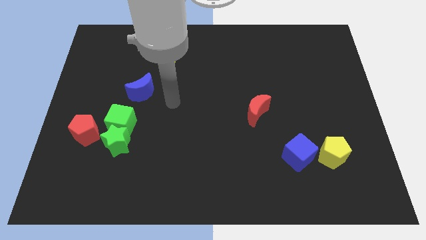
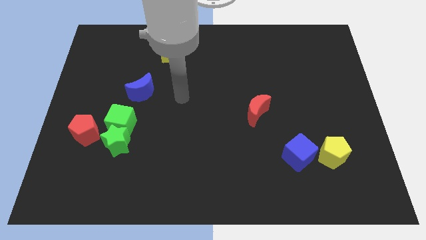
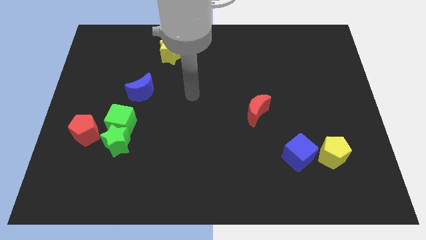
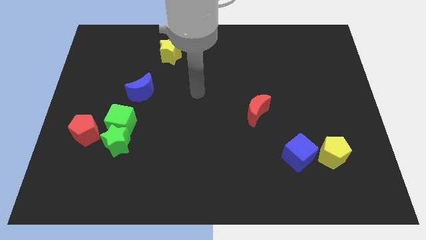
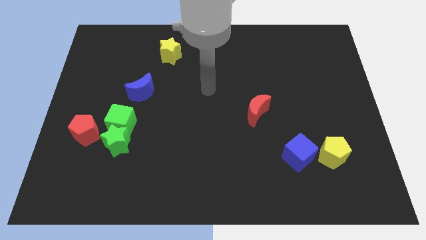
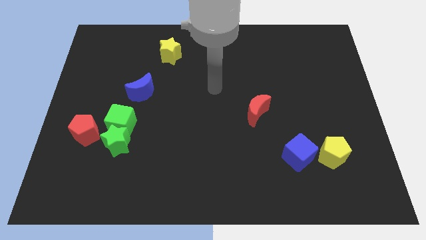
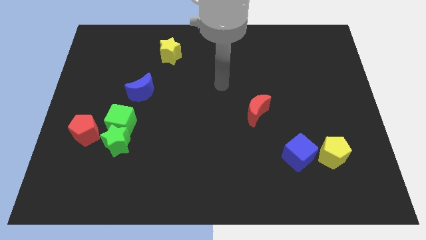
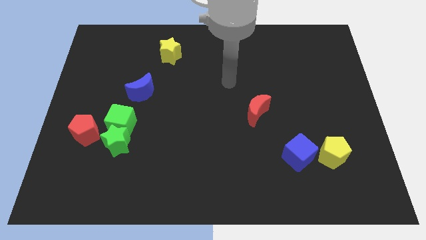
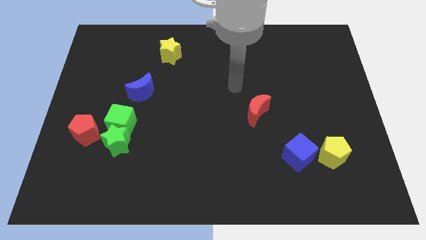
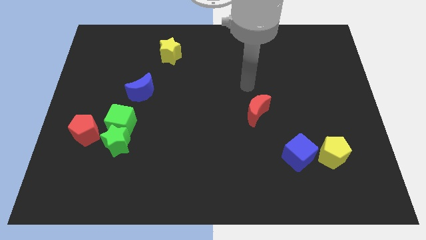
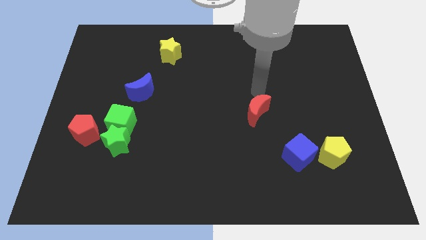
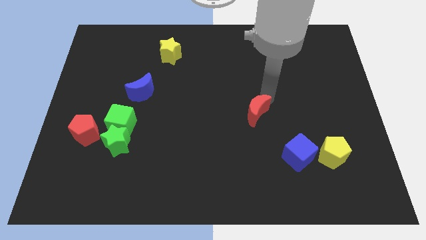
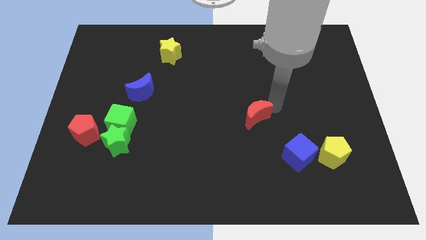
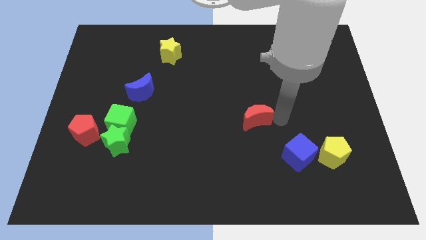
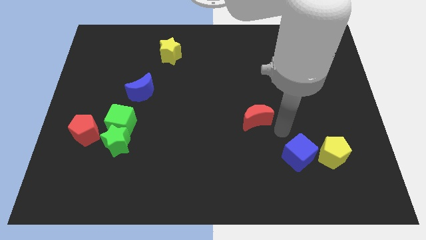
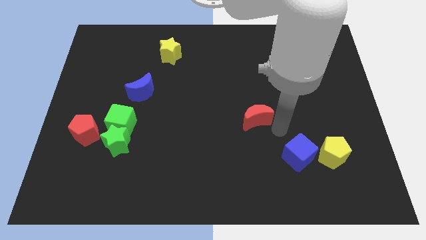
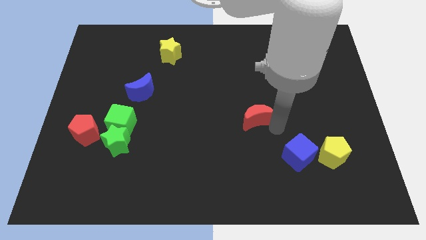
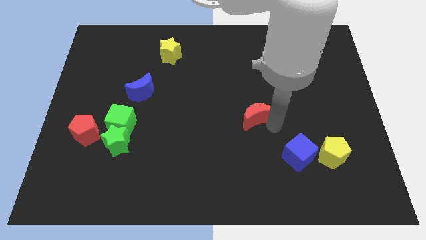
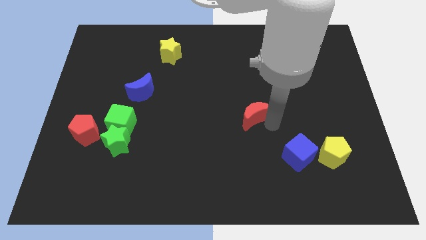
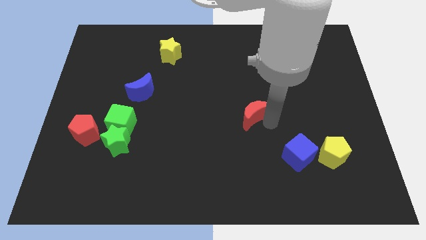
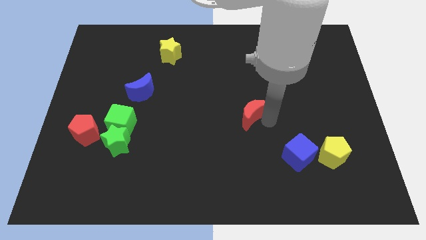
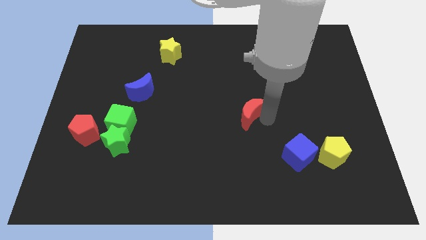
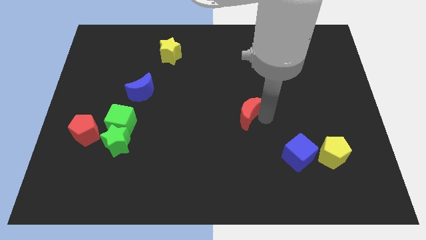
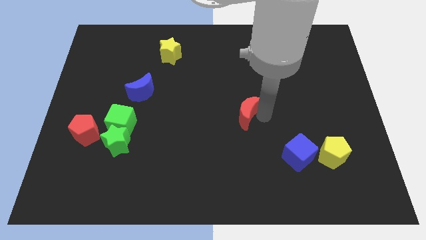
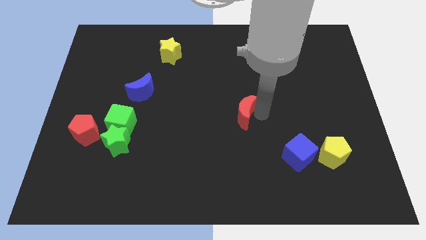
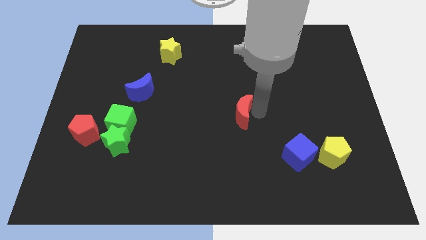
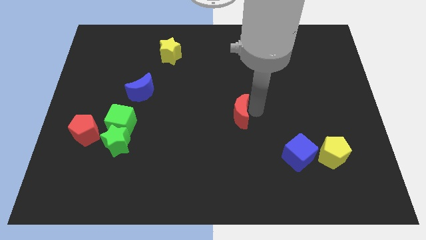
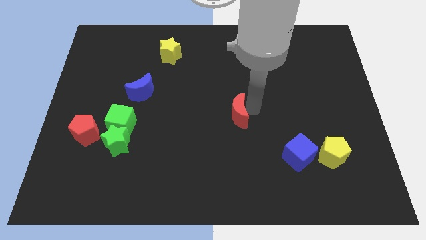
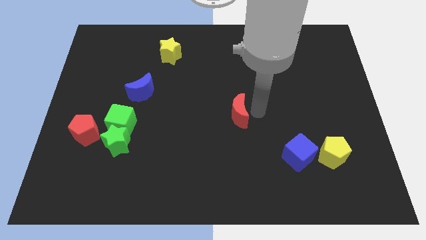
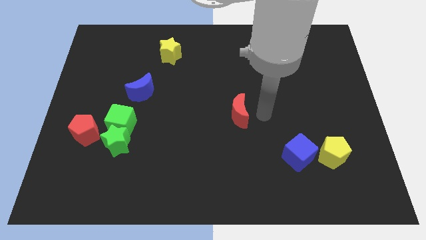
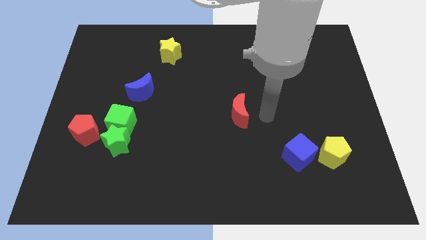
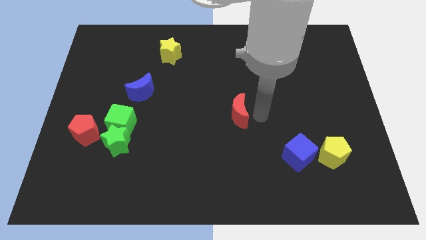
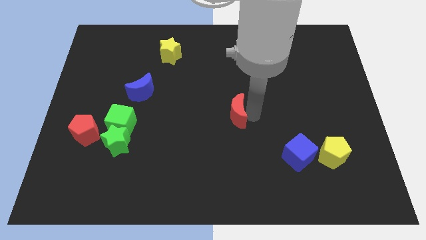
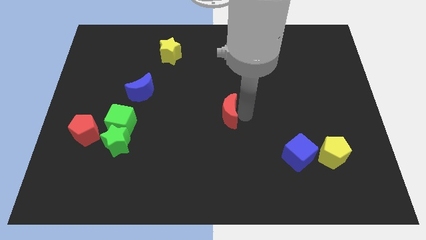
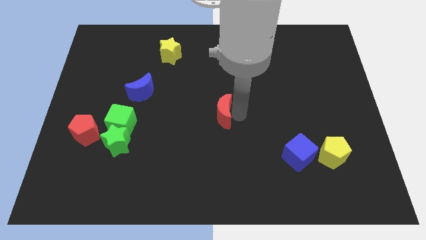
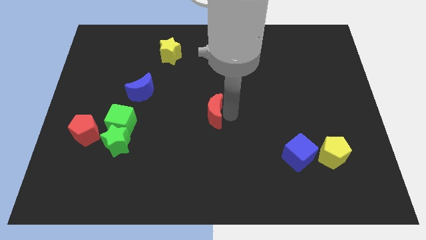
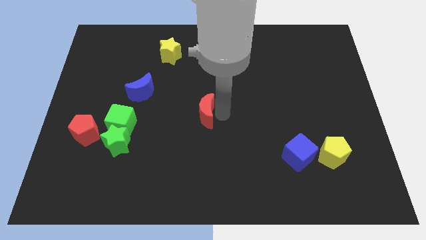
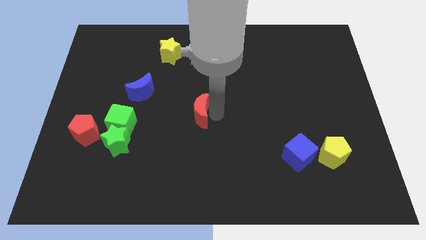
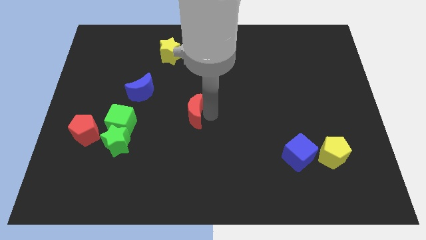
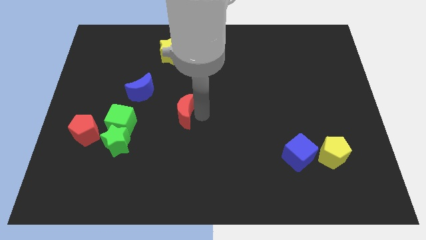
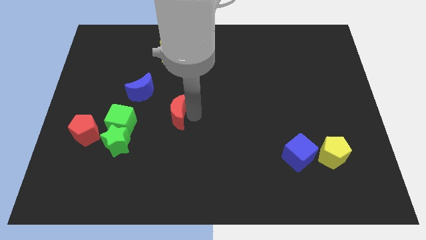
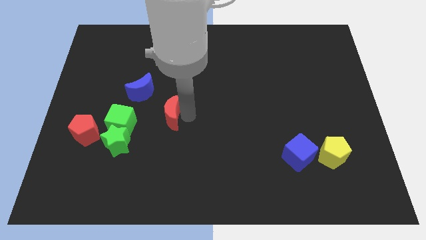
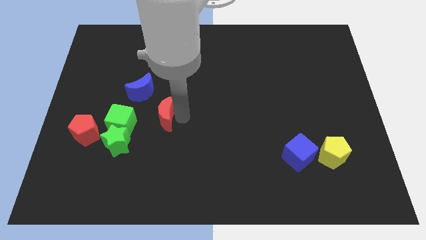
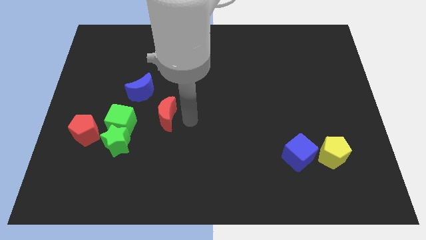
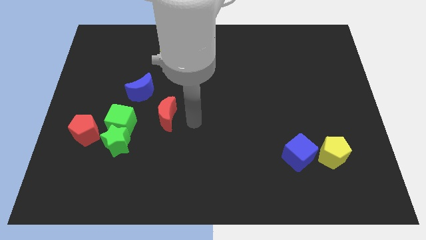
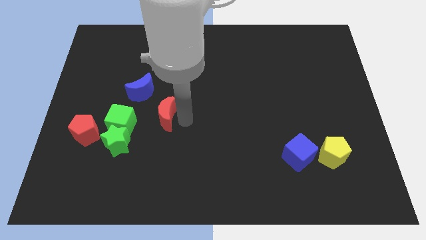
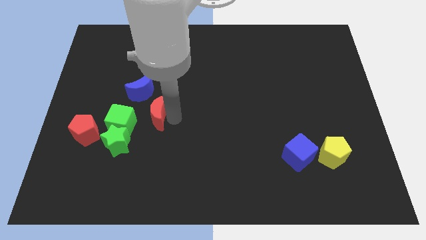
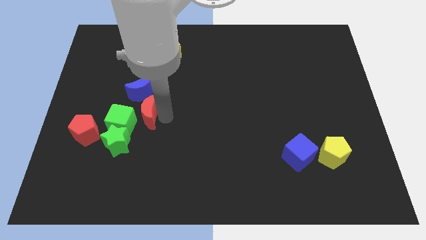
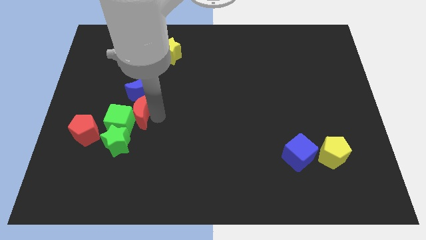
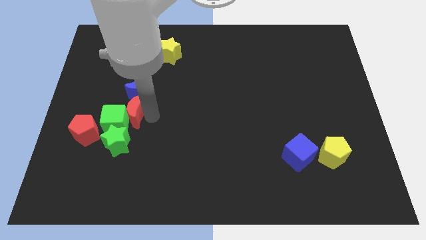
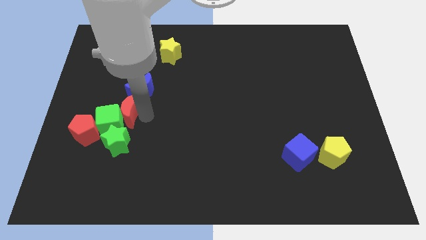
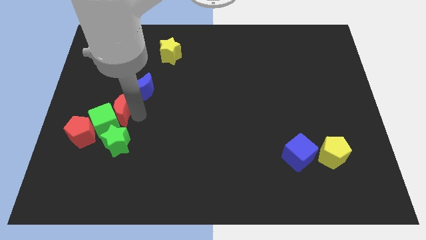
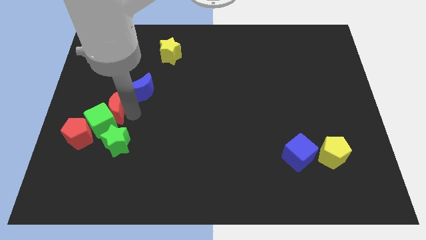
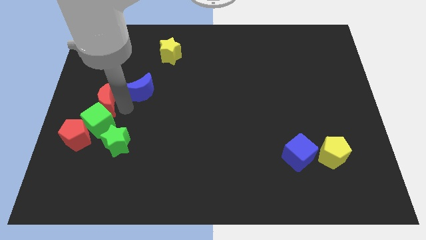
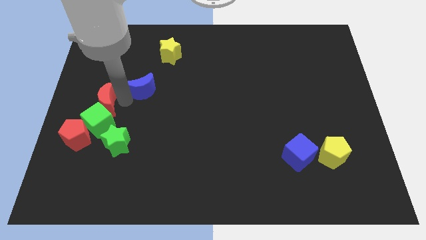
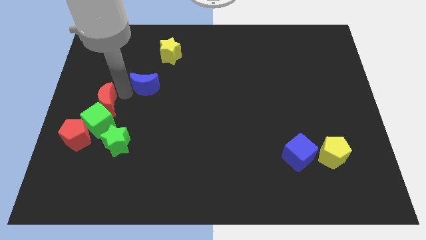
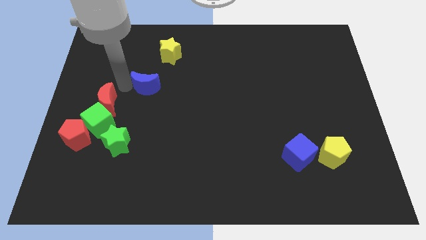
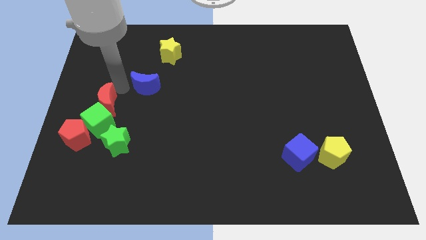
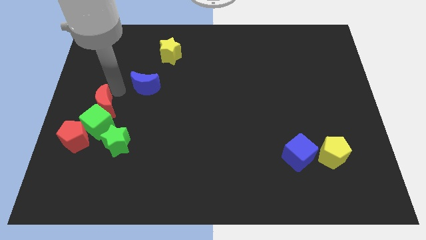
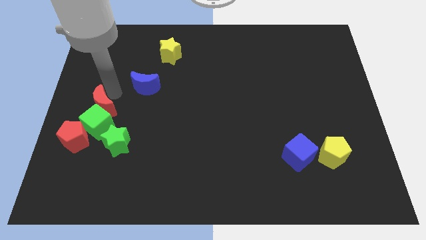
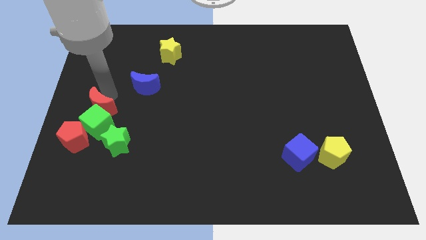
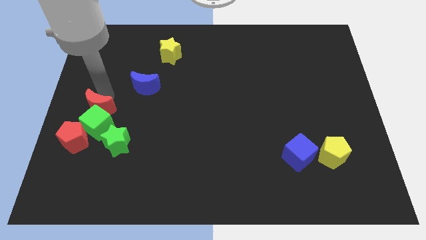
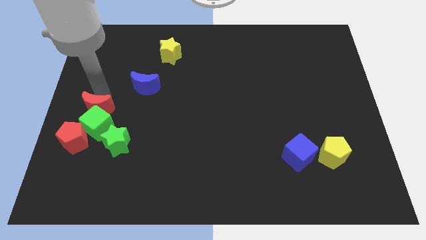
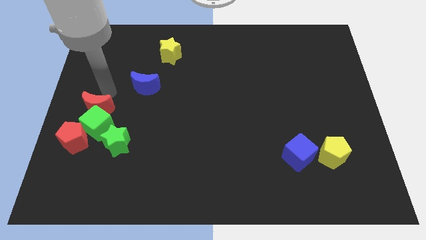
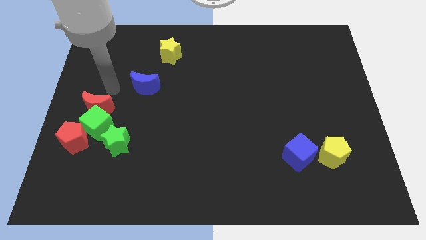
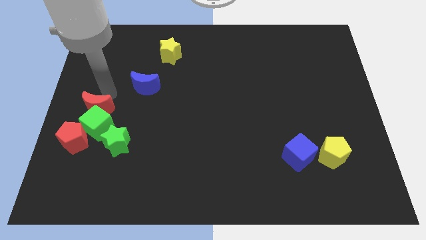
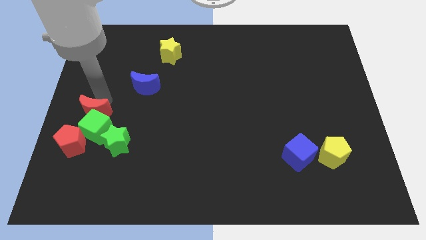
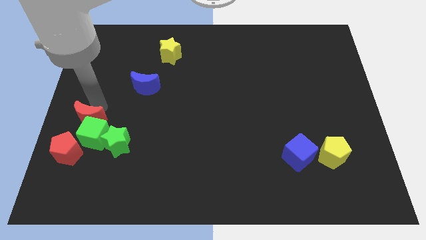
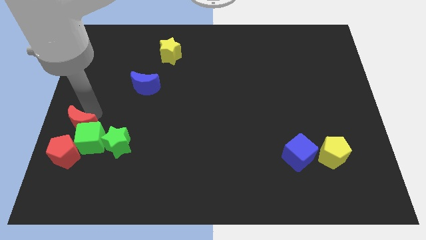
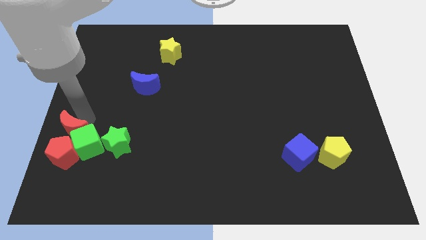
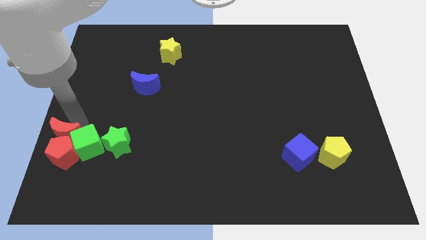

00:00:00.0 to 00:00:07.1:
slide the red moon to the red pentagon
